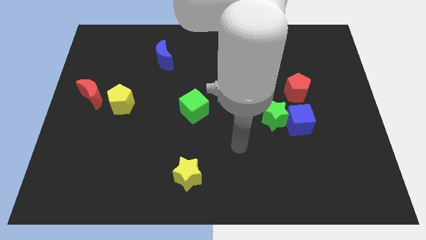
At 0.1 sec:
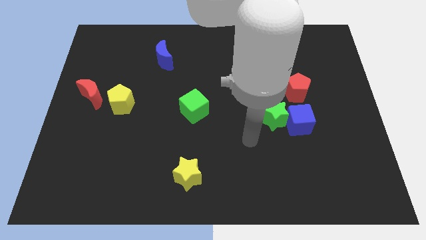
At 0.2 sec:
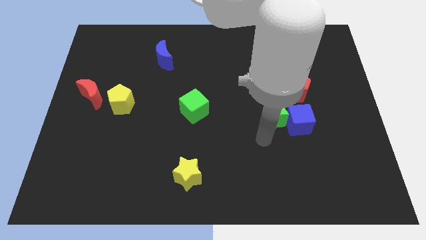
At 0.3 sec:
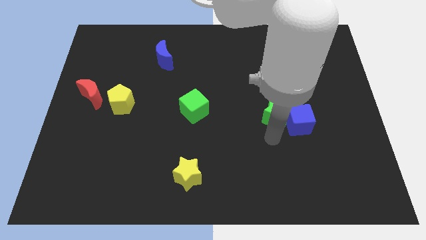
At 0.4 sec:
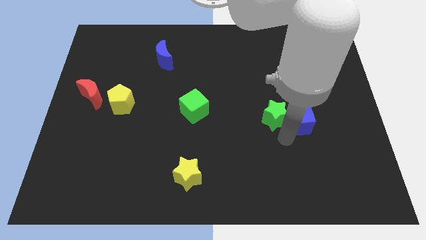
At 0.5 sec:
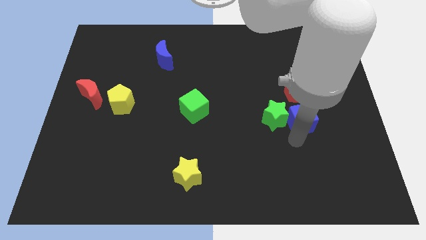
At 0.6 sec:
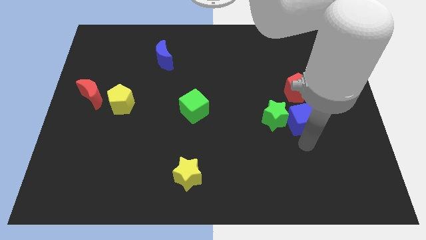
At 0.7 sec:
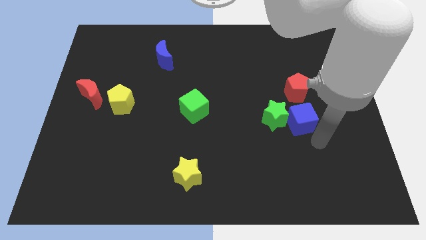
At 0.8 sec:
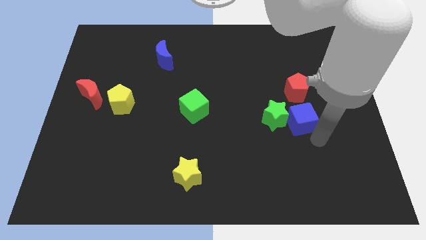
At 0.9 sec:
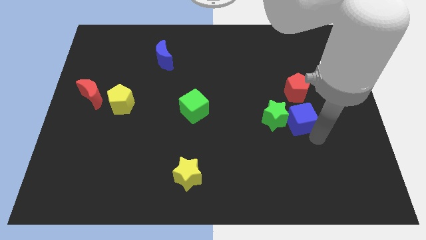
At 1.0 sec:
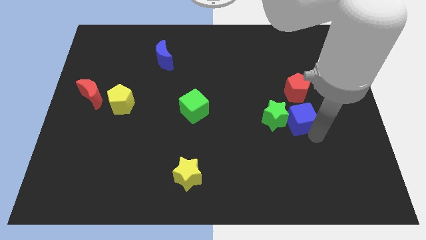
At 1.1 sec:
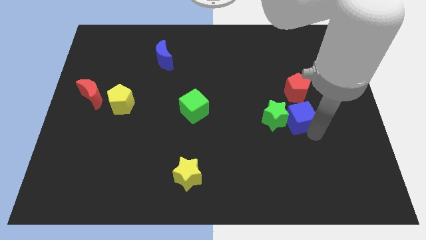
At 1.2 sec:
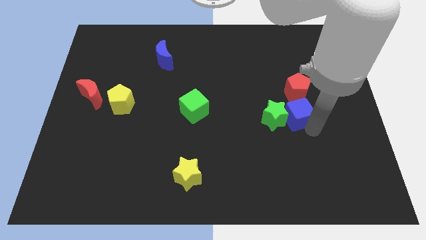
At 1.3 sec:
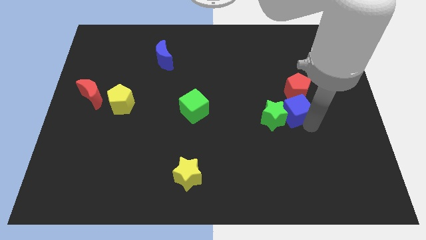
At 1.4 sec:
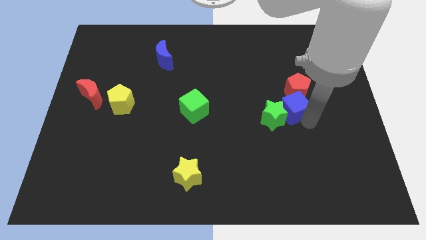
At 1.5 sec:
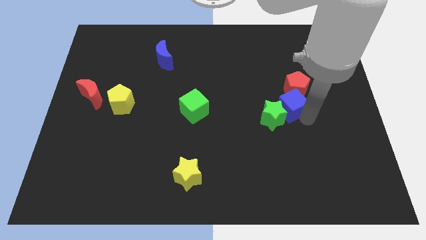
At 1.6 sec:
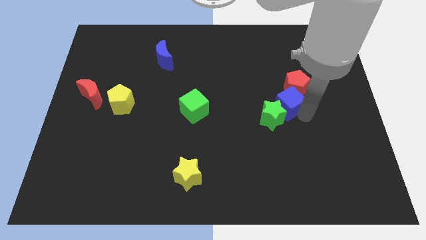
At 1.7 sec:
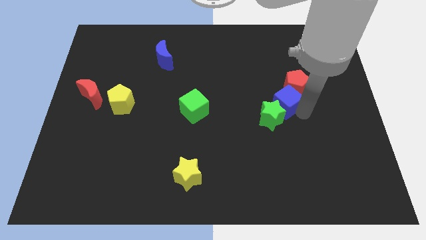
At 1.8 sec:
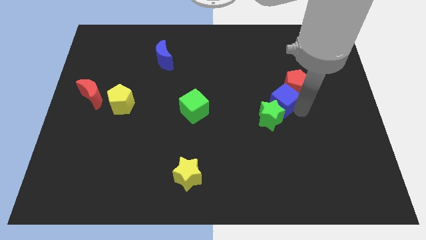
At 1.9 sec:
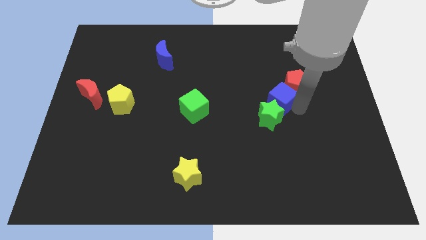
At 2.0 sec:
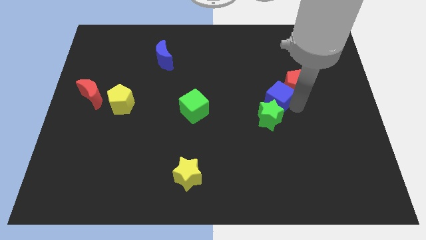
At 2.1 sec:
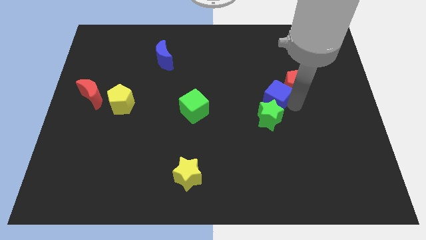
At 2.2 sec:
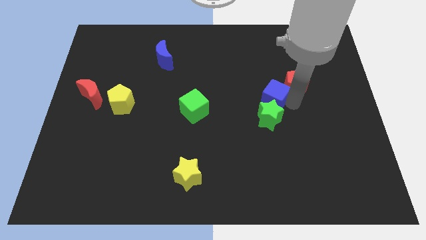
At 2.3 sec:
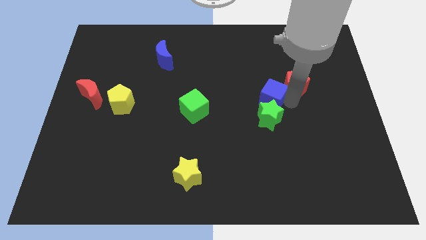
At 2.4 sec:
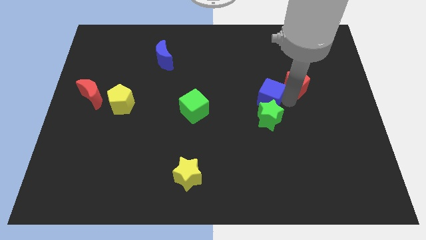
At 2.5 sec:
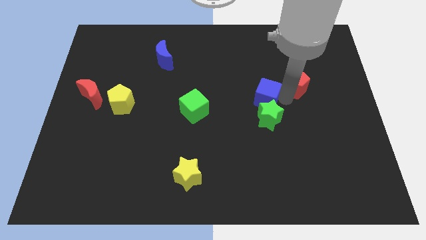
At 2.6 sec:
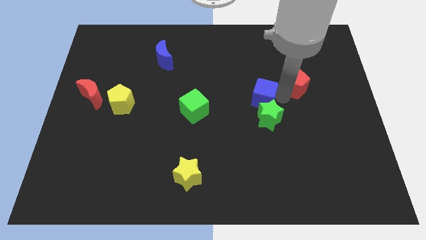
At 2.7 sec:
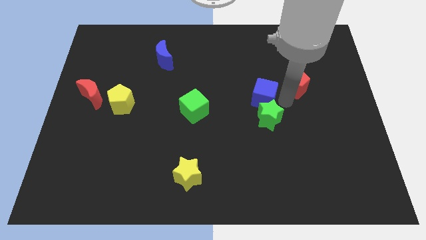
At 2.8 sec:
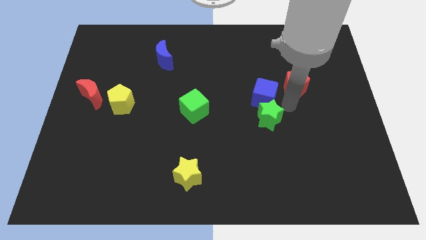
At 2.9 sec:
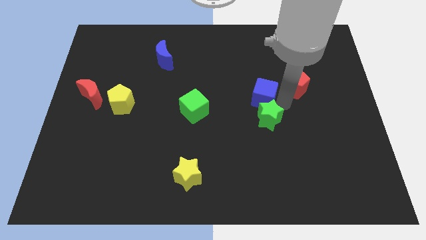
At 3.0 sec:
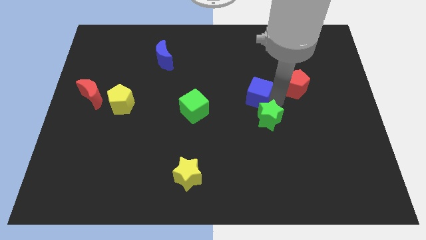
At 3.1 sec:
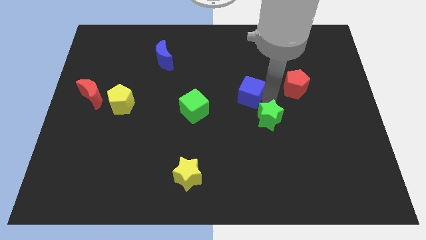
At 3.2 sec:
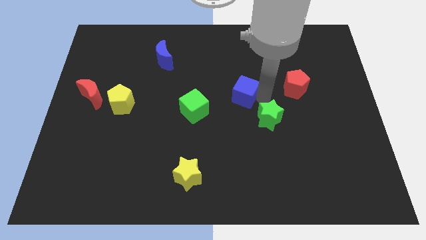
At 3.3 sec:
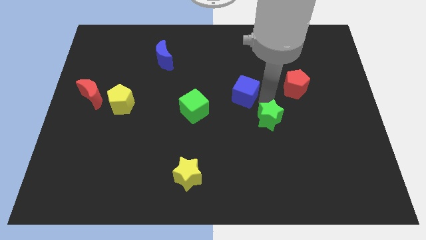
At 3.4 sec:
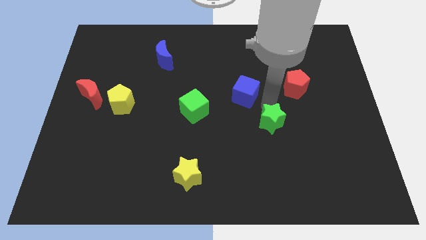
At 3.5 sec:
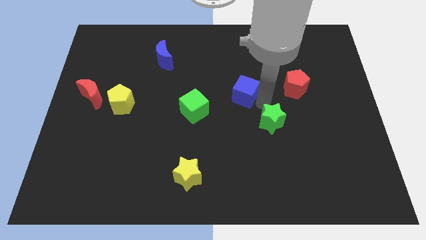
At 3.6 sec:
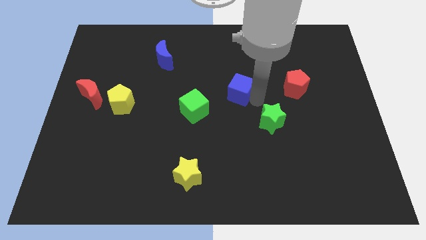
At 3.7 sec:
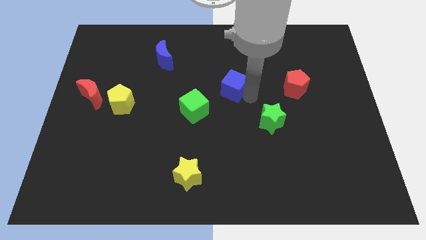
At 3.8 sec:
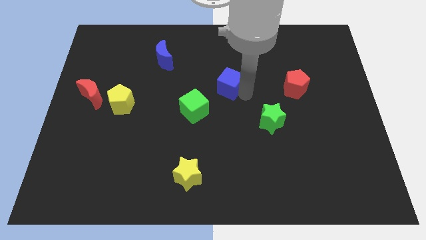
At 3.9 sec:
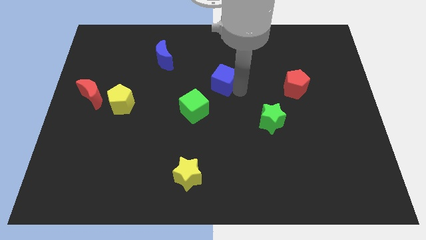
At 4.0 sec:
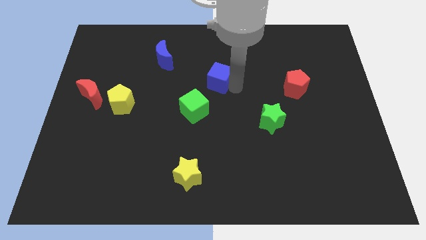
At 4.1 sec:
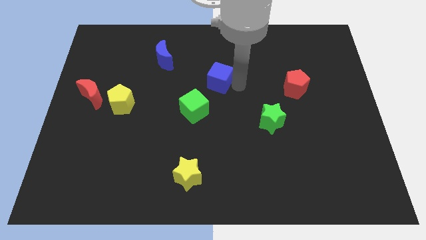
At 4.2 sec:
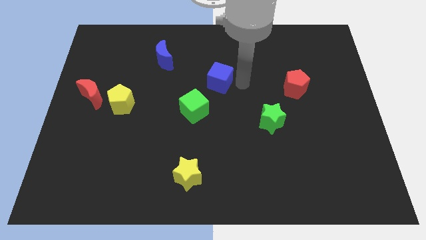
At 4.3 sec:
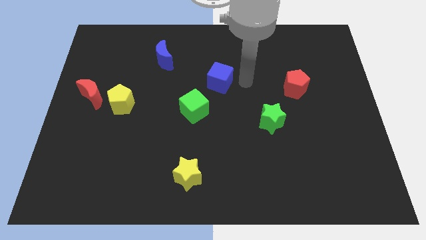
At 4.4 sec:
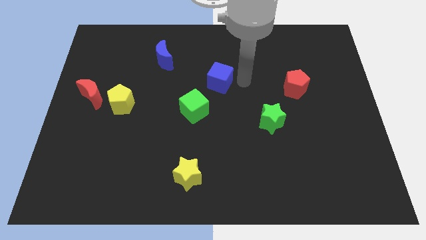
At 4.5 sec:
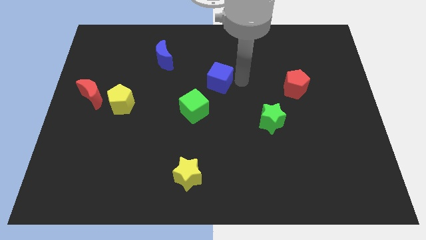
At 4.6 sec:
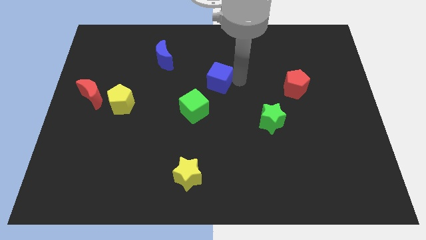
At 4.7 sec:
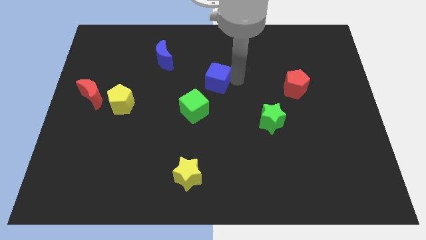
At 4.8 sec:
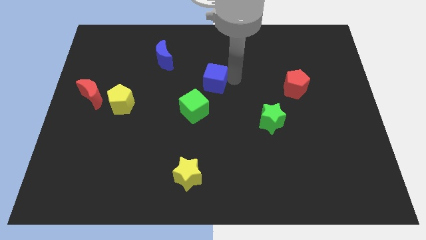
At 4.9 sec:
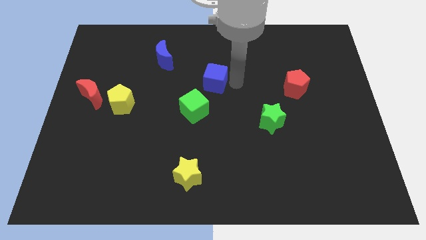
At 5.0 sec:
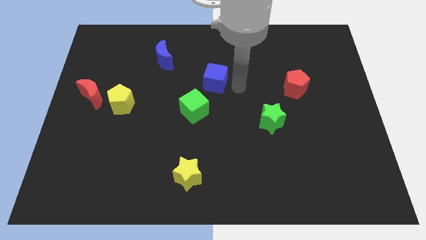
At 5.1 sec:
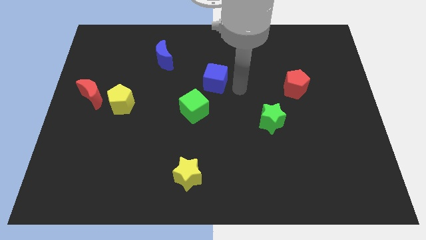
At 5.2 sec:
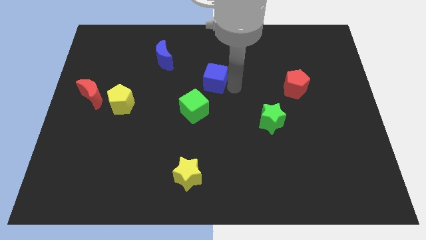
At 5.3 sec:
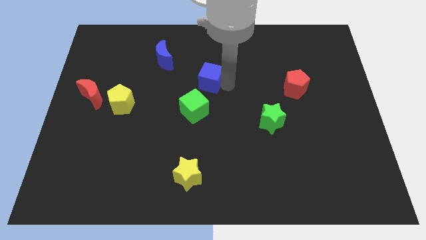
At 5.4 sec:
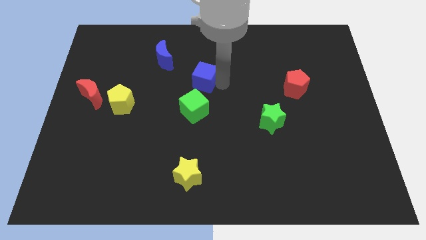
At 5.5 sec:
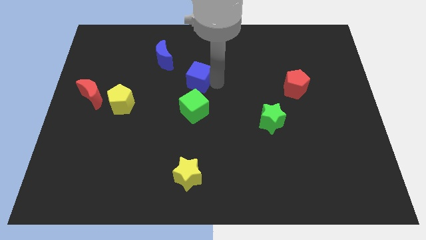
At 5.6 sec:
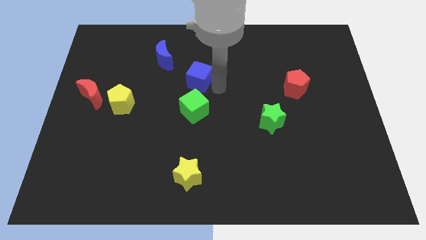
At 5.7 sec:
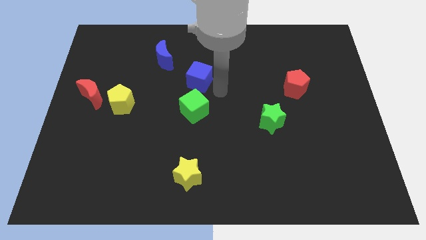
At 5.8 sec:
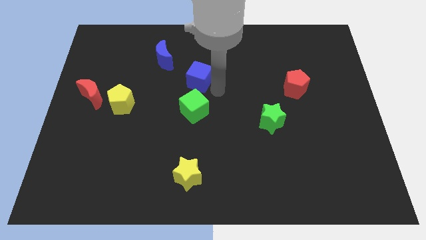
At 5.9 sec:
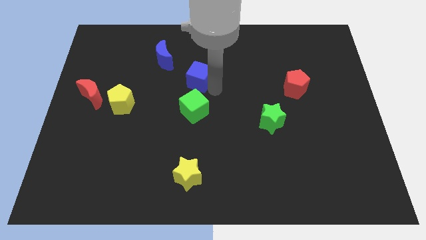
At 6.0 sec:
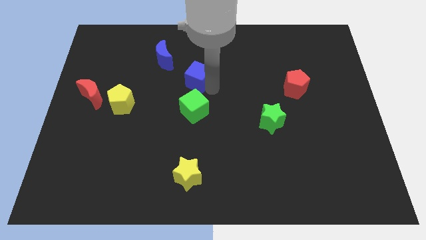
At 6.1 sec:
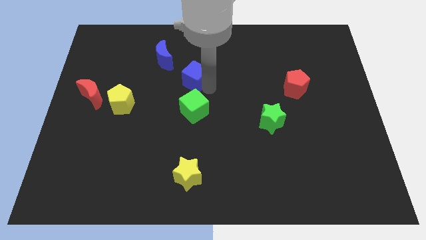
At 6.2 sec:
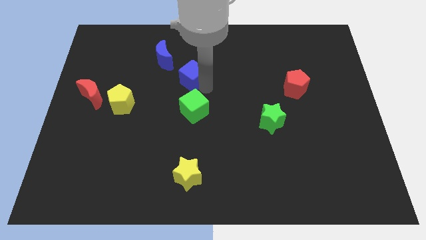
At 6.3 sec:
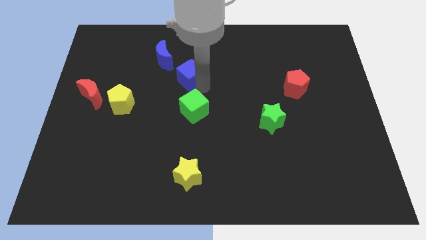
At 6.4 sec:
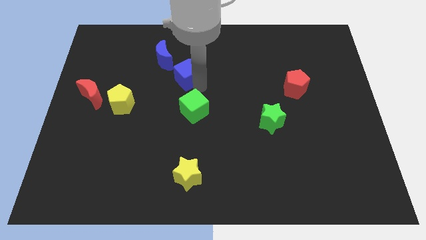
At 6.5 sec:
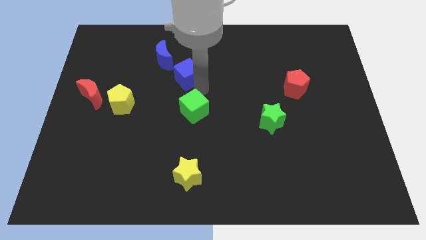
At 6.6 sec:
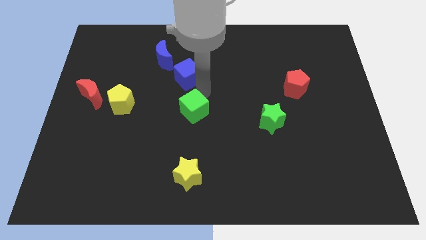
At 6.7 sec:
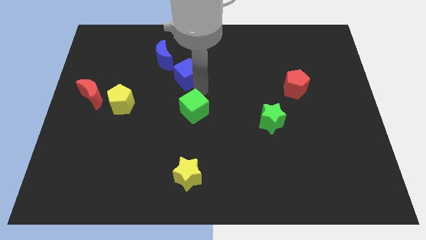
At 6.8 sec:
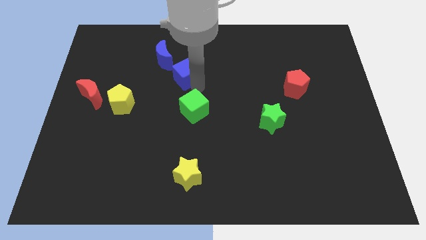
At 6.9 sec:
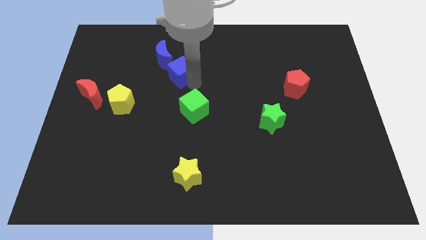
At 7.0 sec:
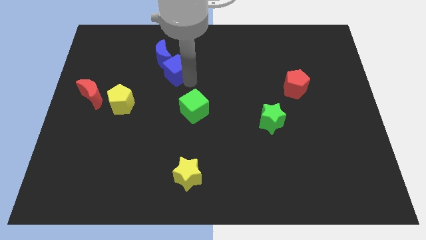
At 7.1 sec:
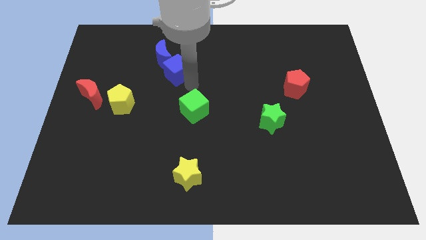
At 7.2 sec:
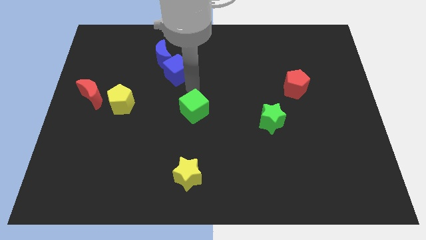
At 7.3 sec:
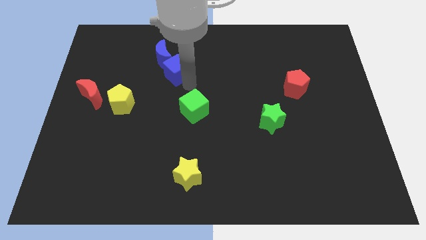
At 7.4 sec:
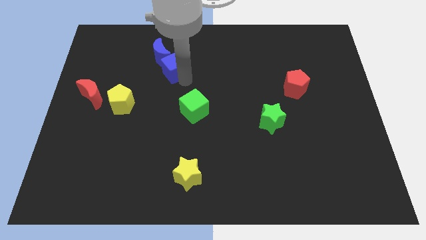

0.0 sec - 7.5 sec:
push the blue cube next to the blue moon

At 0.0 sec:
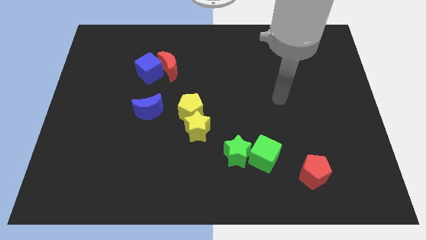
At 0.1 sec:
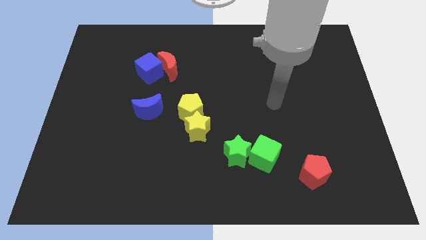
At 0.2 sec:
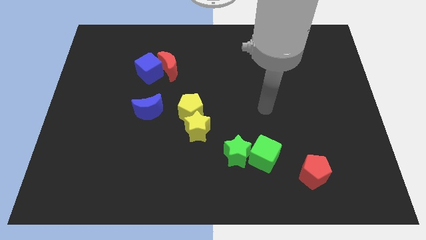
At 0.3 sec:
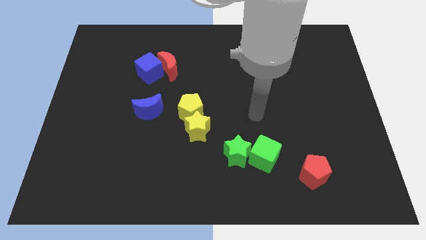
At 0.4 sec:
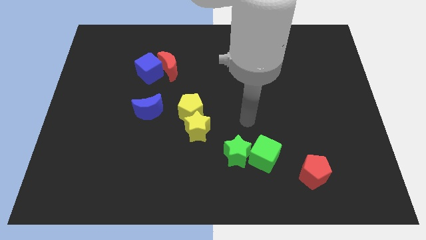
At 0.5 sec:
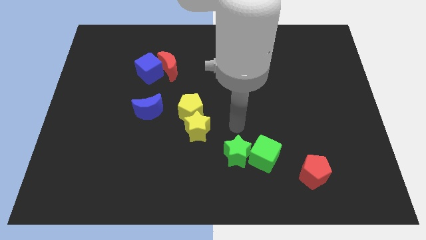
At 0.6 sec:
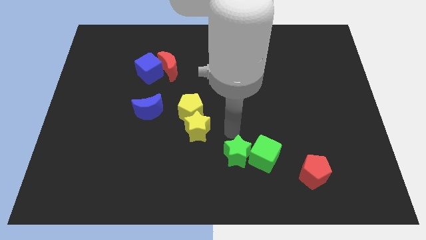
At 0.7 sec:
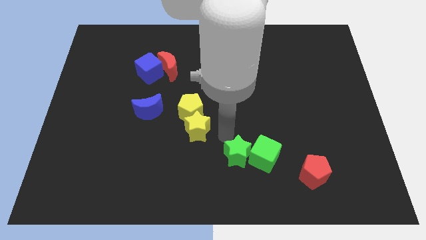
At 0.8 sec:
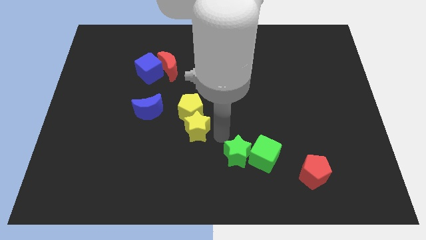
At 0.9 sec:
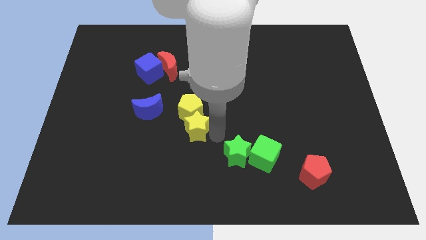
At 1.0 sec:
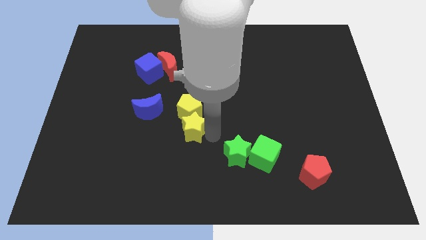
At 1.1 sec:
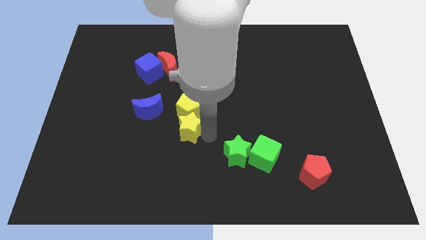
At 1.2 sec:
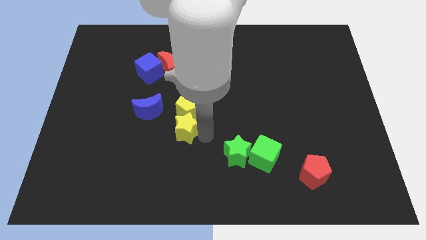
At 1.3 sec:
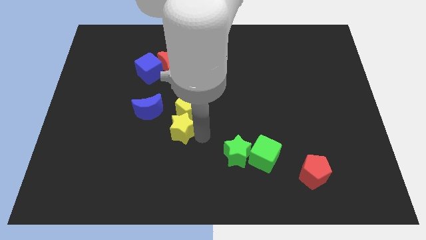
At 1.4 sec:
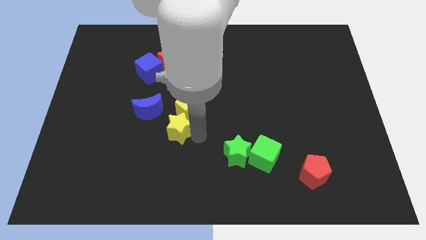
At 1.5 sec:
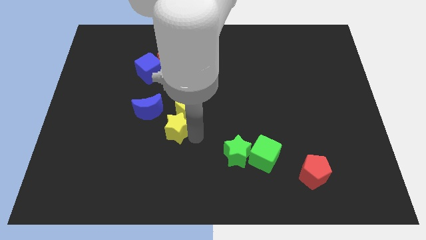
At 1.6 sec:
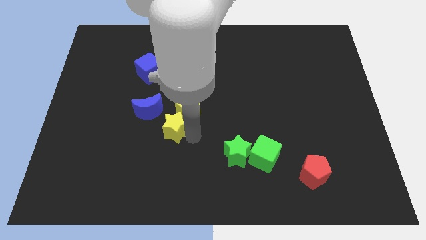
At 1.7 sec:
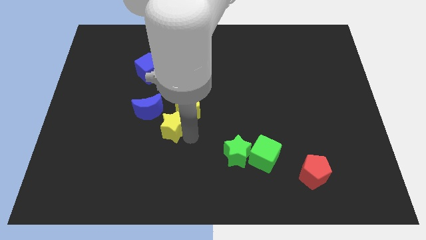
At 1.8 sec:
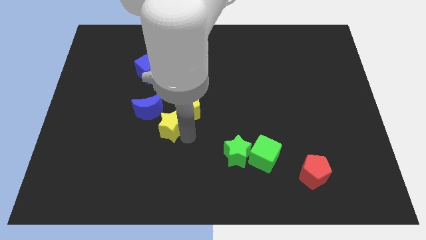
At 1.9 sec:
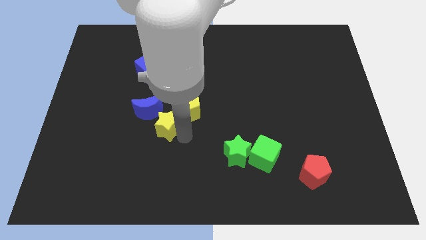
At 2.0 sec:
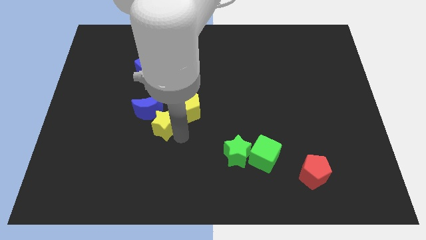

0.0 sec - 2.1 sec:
move the yellow star towards the blue moon
